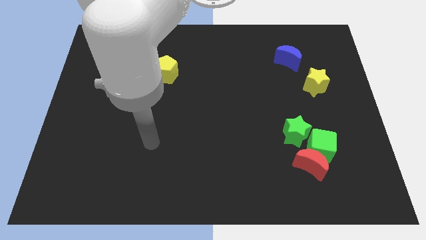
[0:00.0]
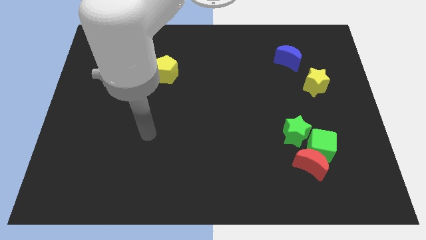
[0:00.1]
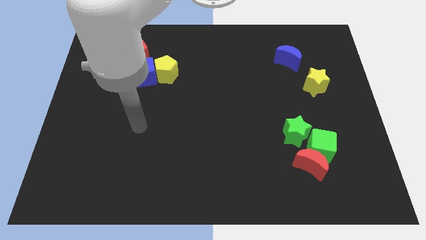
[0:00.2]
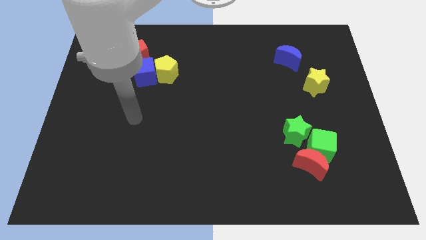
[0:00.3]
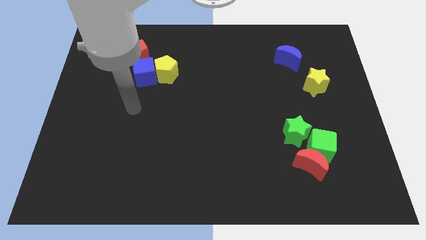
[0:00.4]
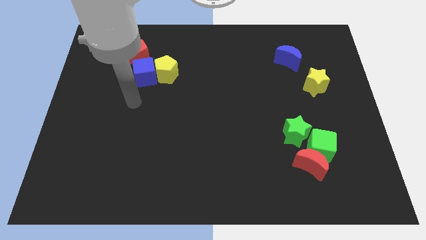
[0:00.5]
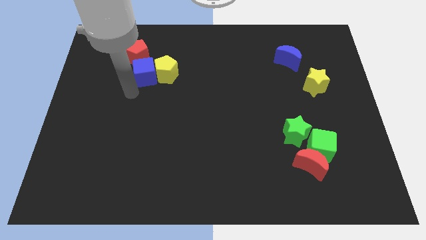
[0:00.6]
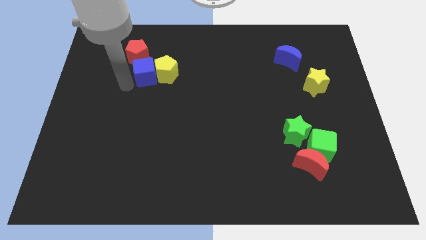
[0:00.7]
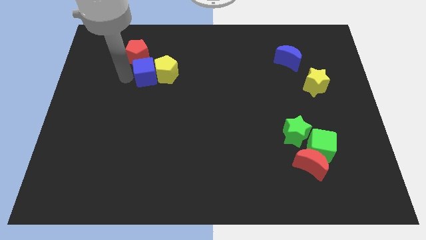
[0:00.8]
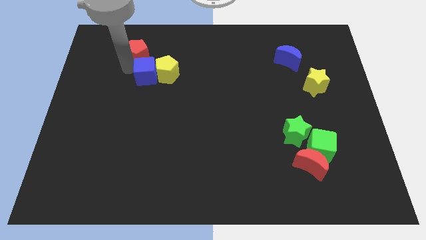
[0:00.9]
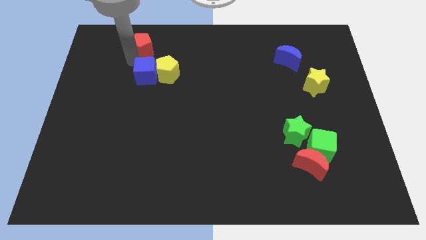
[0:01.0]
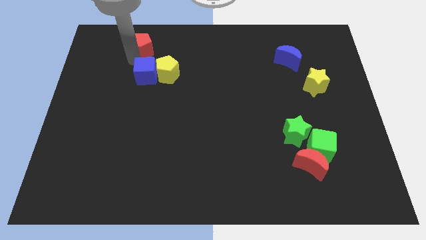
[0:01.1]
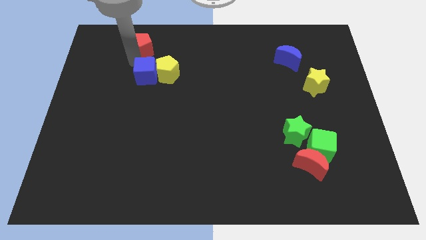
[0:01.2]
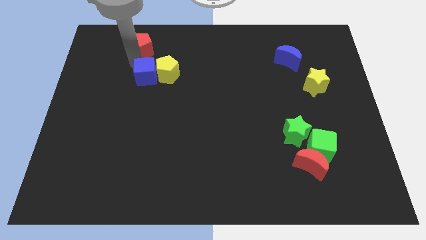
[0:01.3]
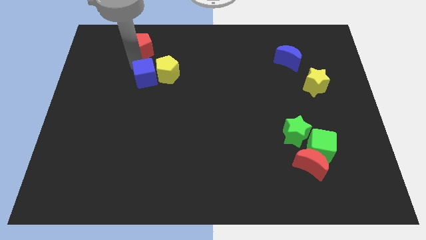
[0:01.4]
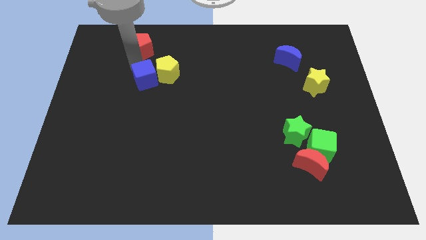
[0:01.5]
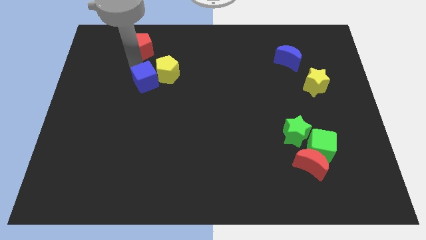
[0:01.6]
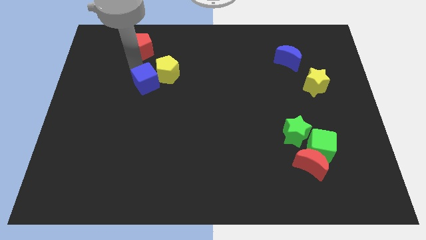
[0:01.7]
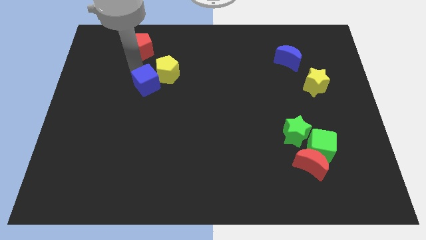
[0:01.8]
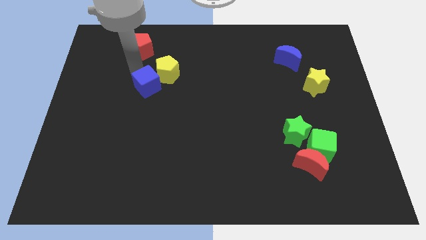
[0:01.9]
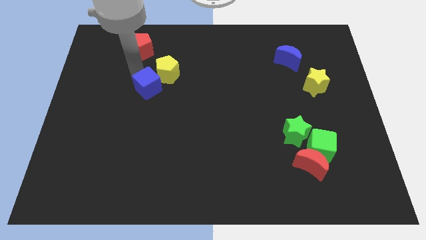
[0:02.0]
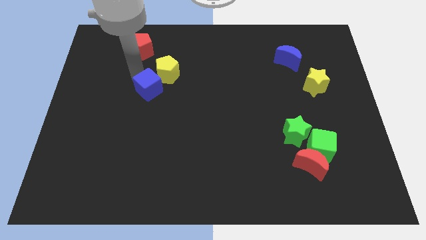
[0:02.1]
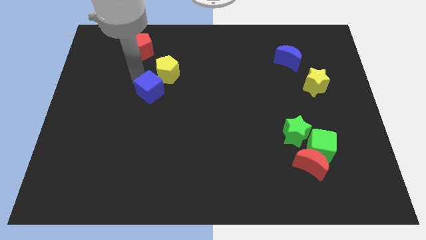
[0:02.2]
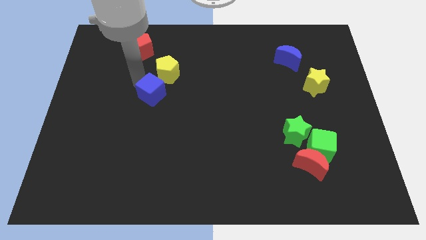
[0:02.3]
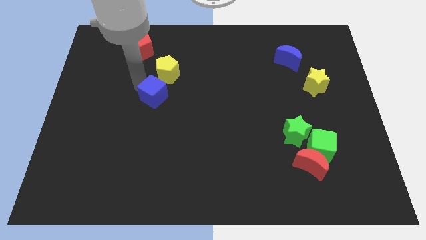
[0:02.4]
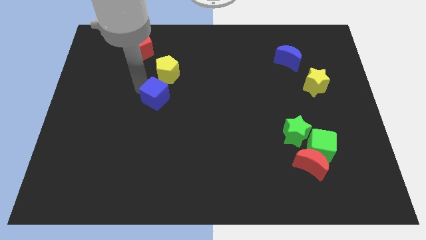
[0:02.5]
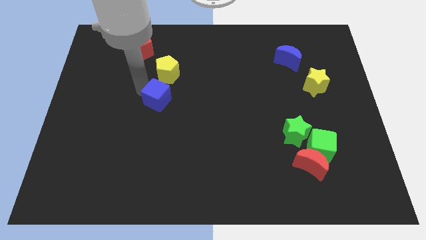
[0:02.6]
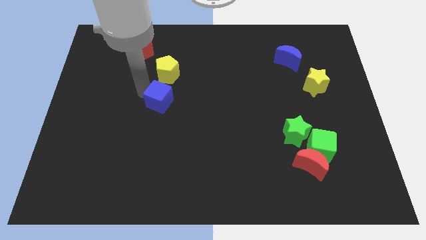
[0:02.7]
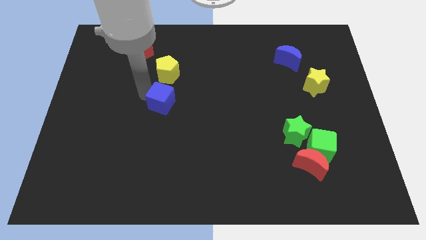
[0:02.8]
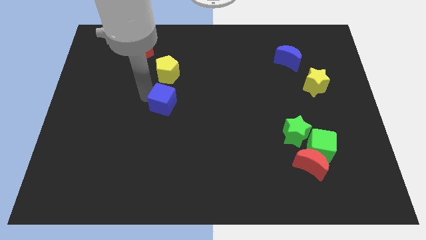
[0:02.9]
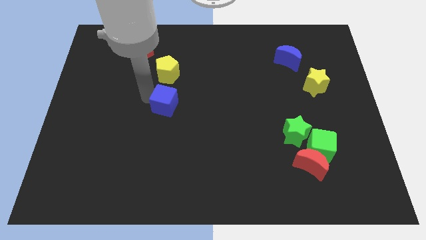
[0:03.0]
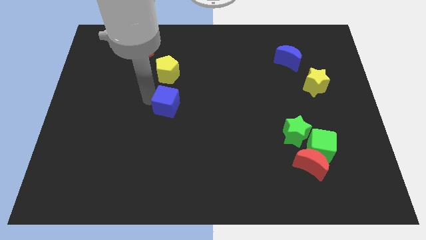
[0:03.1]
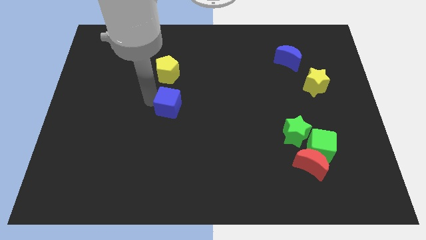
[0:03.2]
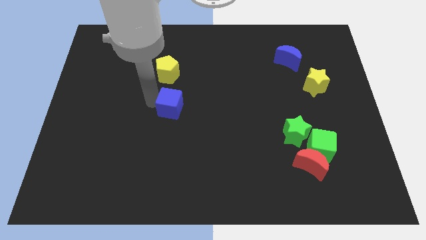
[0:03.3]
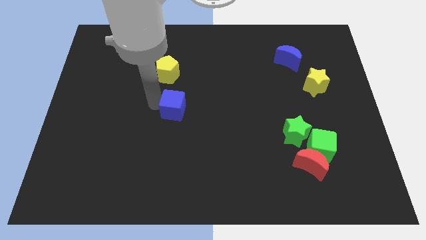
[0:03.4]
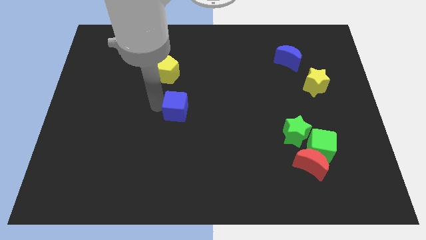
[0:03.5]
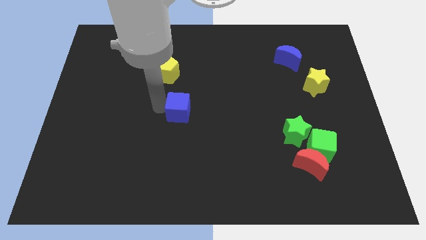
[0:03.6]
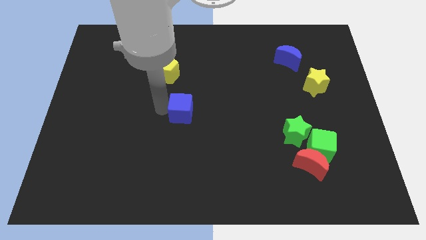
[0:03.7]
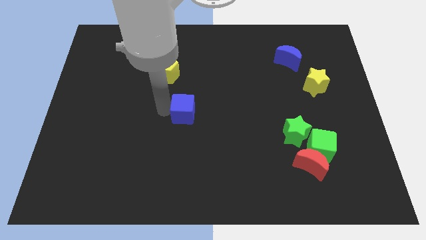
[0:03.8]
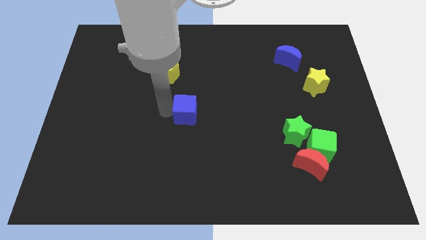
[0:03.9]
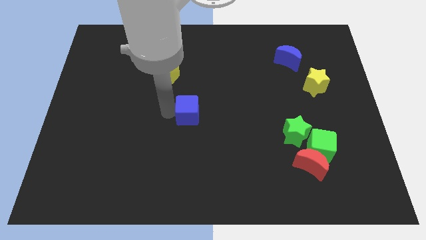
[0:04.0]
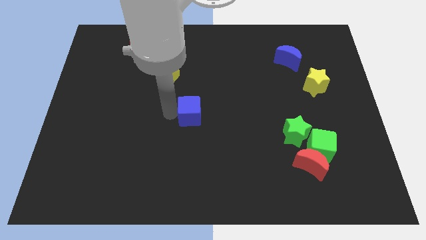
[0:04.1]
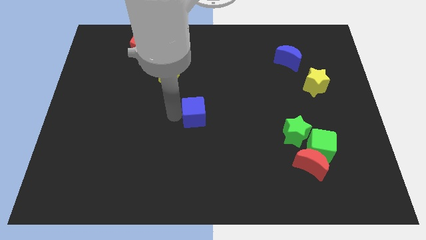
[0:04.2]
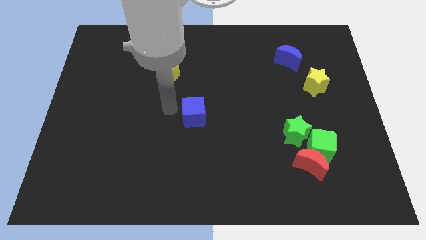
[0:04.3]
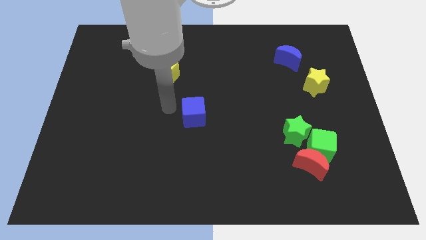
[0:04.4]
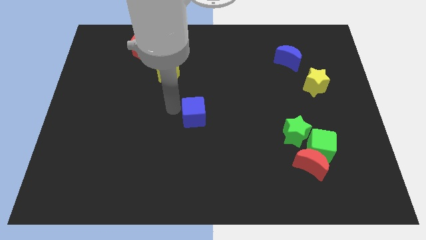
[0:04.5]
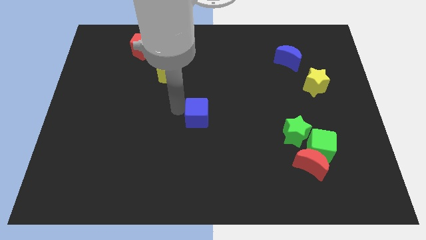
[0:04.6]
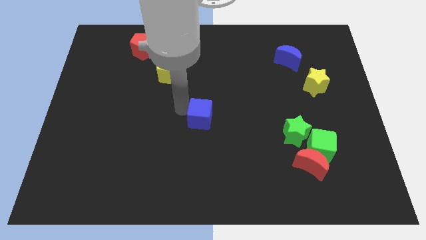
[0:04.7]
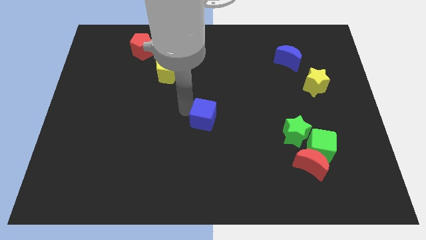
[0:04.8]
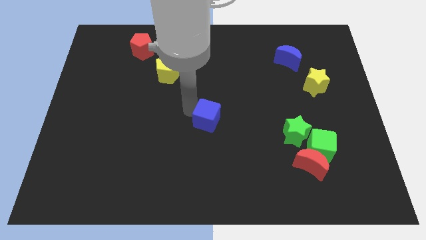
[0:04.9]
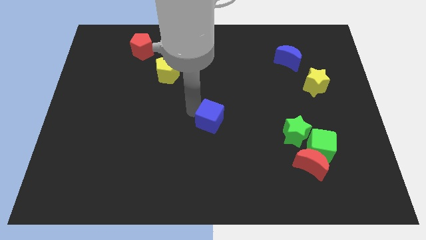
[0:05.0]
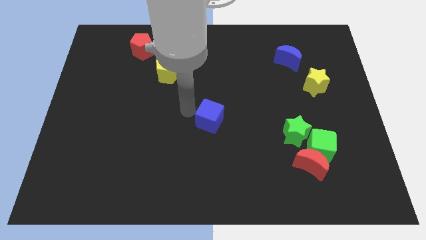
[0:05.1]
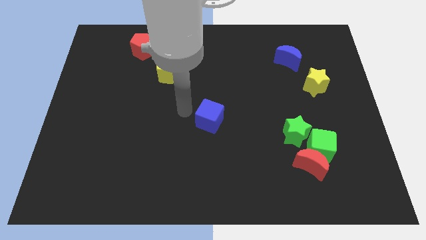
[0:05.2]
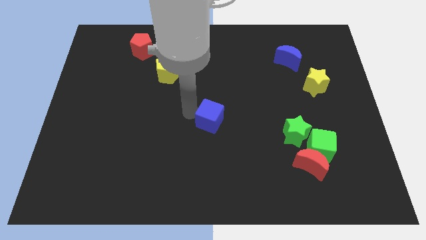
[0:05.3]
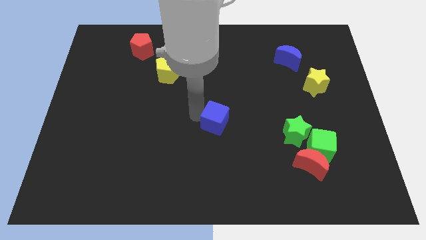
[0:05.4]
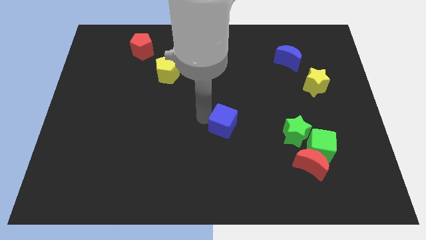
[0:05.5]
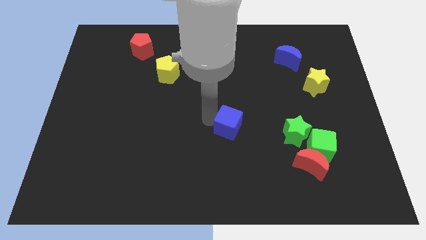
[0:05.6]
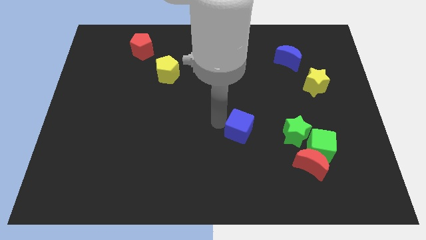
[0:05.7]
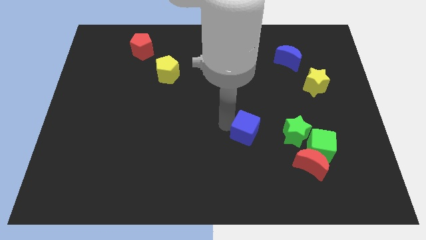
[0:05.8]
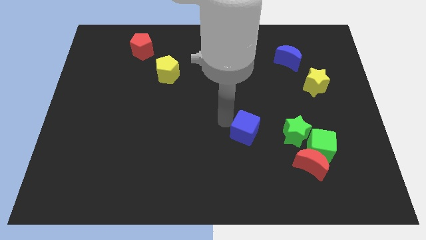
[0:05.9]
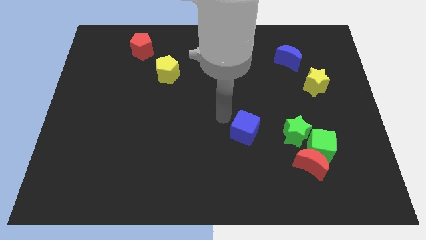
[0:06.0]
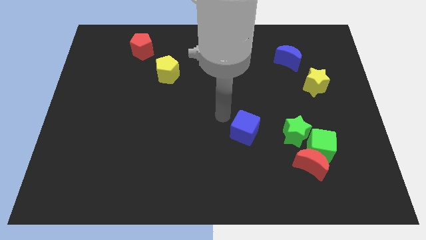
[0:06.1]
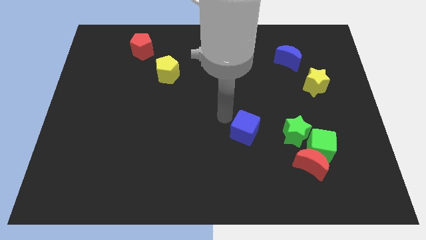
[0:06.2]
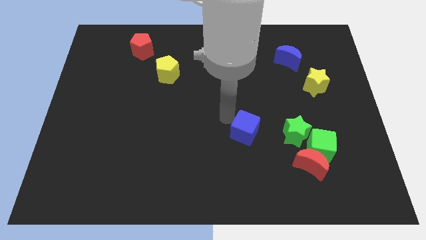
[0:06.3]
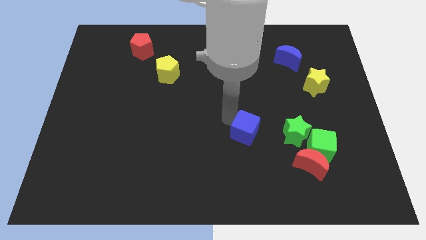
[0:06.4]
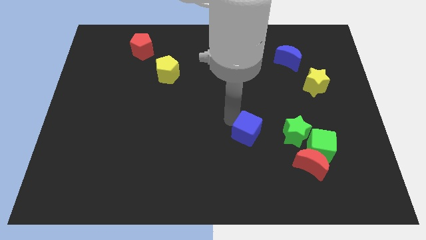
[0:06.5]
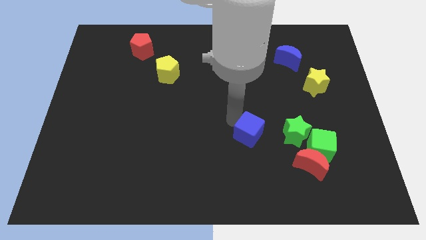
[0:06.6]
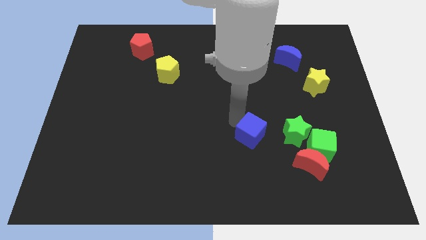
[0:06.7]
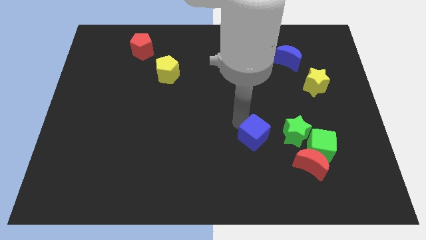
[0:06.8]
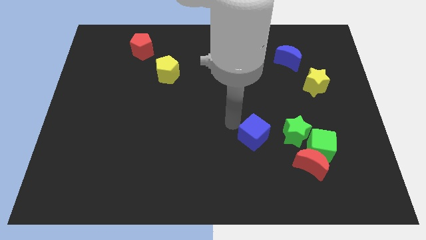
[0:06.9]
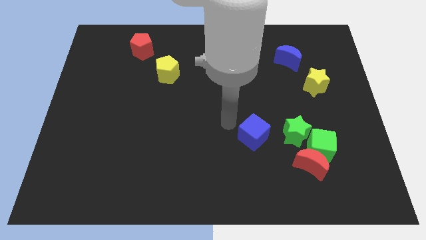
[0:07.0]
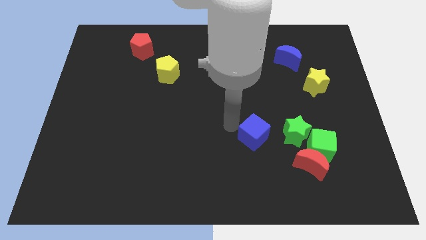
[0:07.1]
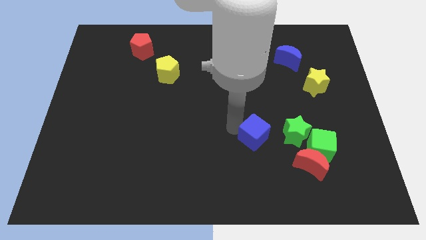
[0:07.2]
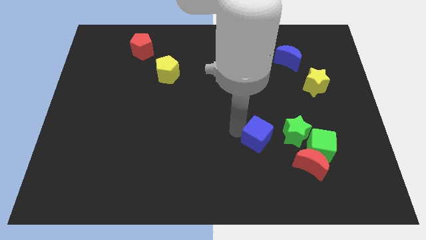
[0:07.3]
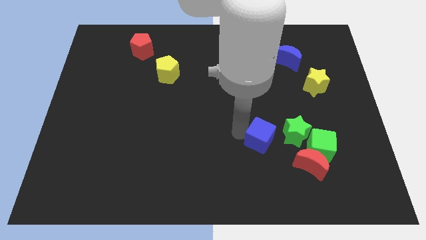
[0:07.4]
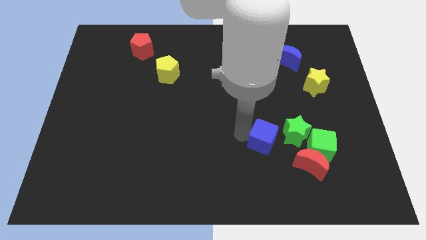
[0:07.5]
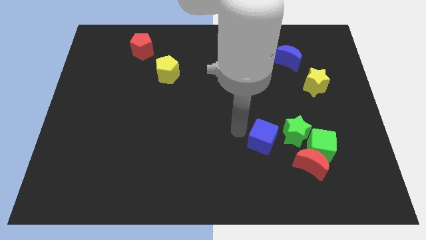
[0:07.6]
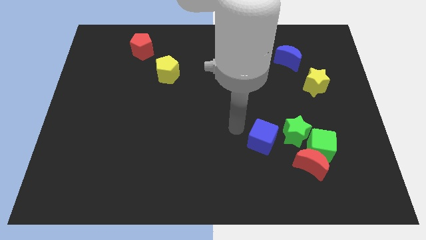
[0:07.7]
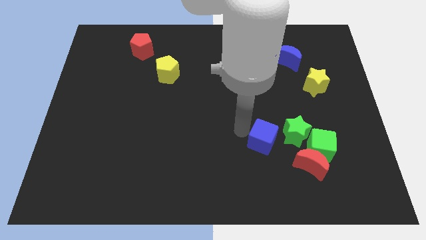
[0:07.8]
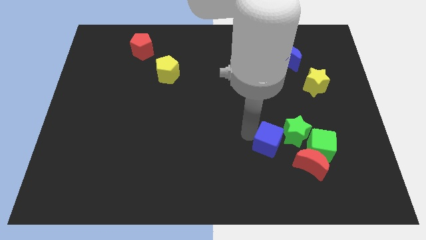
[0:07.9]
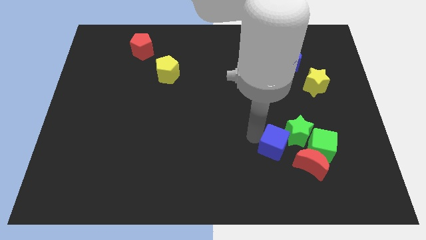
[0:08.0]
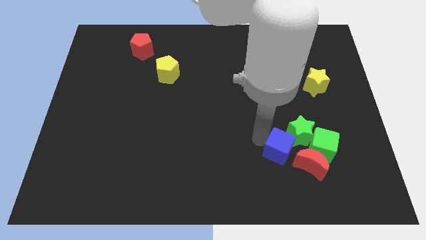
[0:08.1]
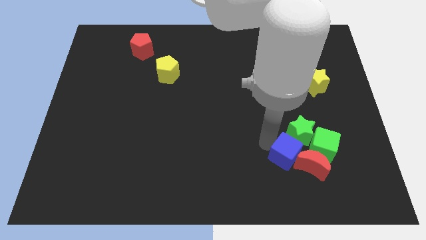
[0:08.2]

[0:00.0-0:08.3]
slide the blue cube towards the red moon
